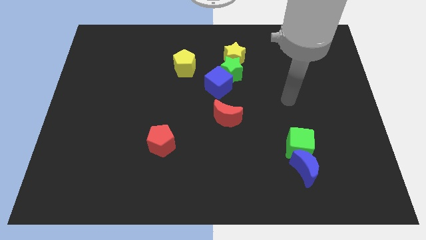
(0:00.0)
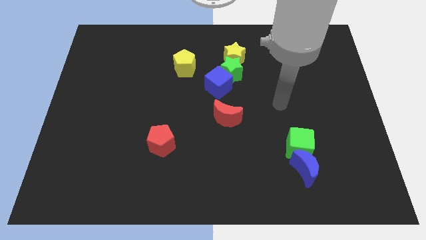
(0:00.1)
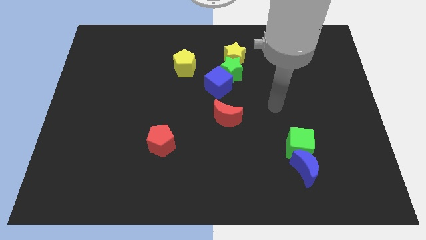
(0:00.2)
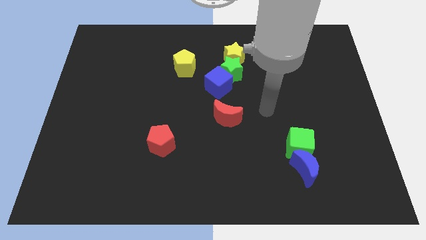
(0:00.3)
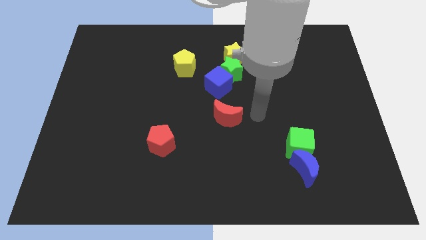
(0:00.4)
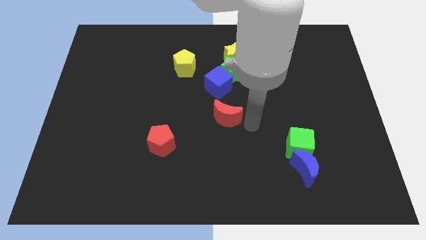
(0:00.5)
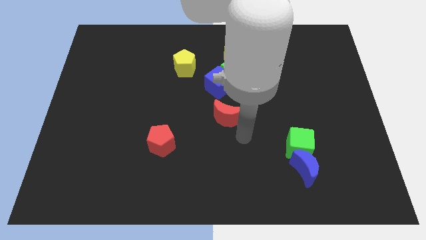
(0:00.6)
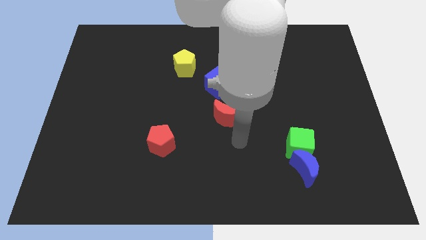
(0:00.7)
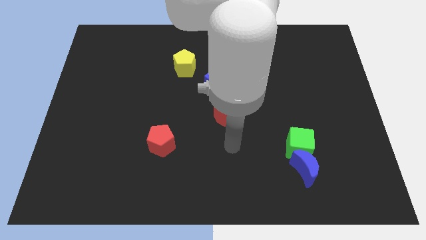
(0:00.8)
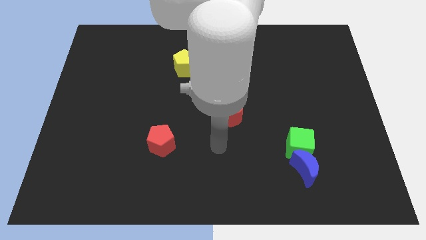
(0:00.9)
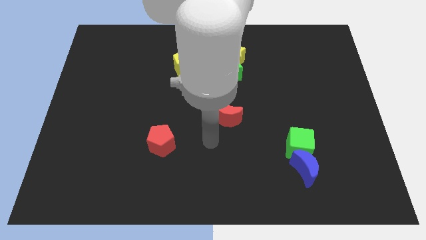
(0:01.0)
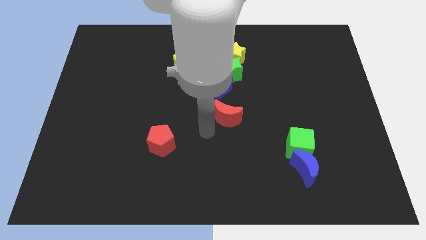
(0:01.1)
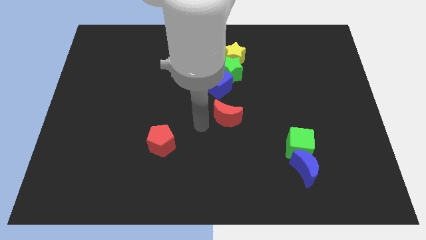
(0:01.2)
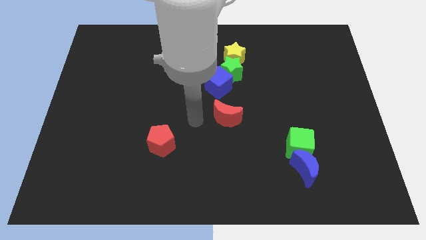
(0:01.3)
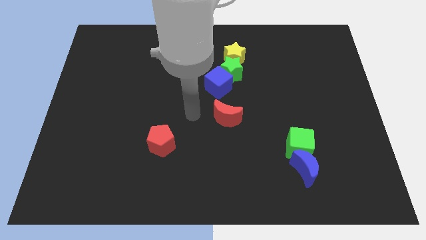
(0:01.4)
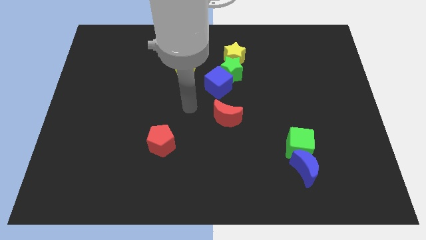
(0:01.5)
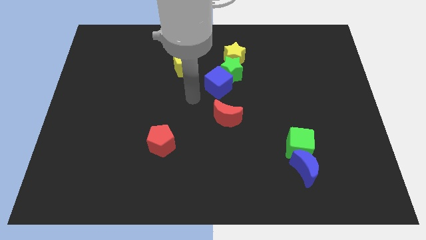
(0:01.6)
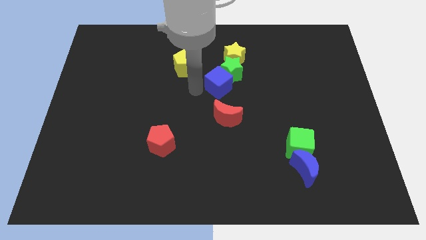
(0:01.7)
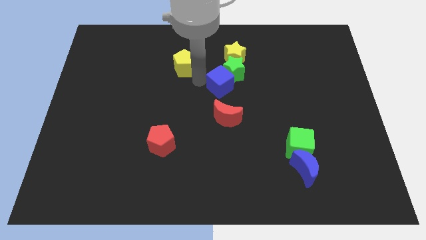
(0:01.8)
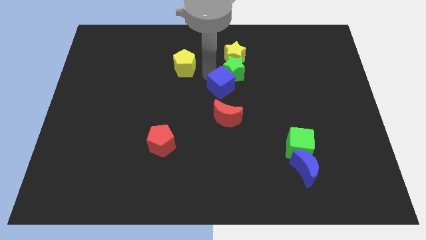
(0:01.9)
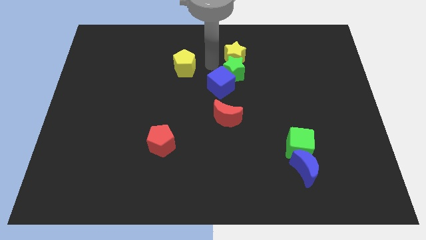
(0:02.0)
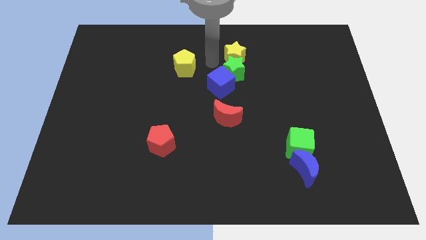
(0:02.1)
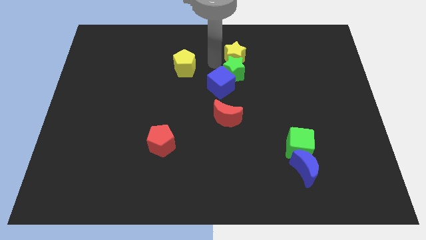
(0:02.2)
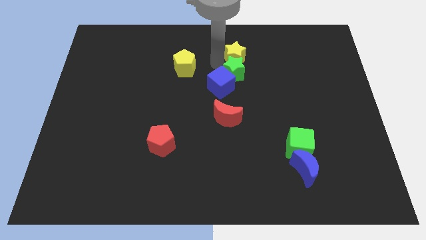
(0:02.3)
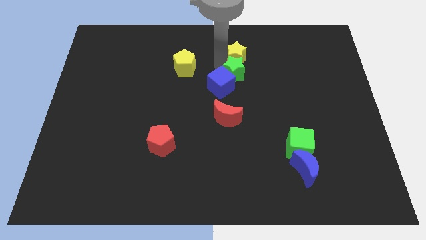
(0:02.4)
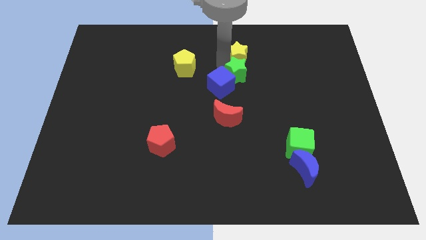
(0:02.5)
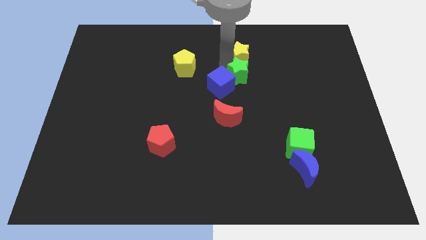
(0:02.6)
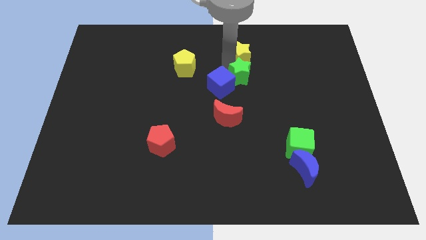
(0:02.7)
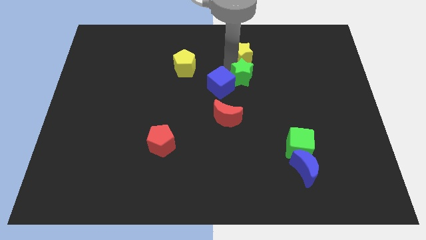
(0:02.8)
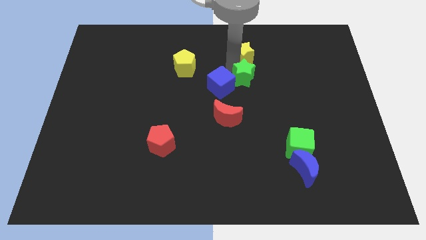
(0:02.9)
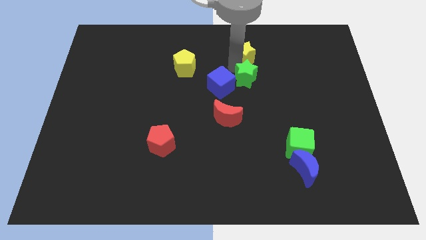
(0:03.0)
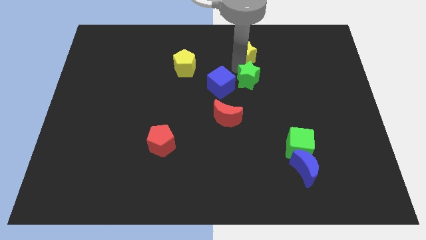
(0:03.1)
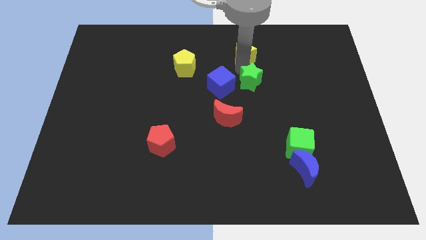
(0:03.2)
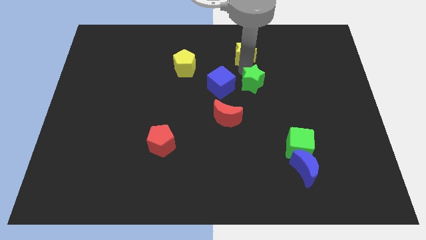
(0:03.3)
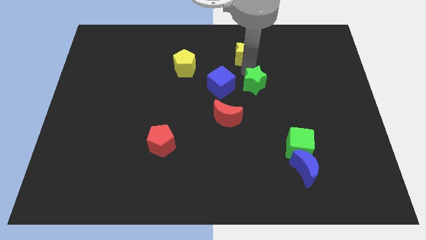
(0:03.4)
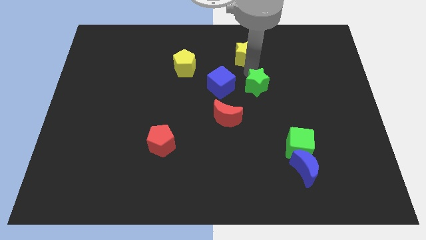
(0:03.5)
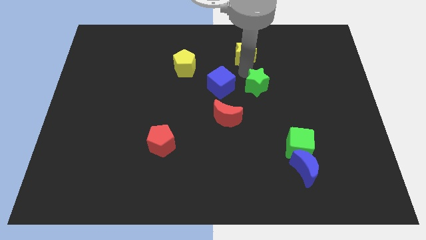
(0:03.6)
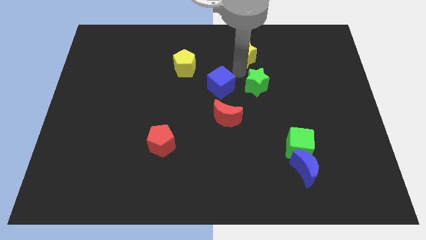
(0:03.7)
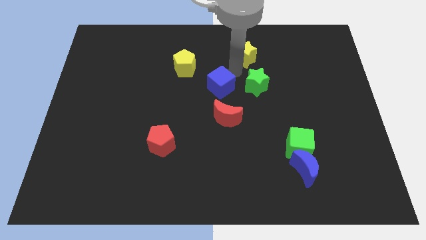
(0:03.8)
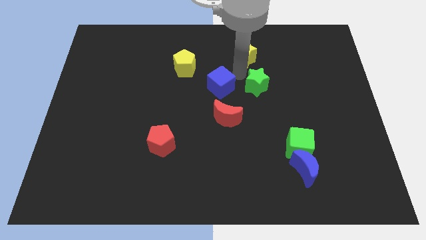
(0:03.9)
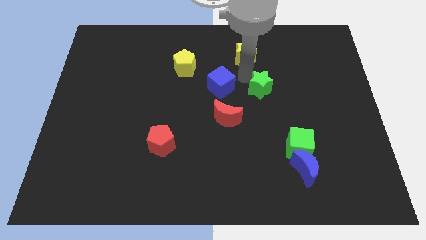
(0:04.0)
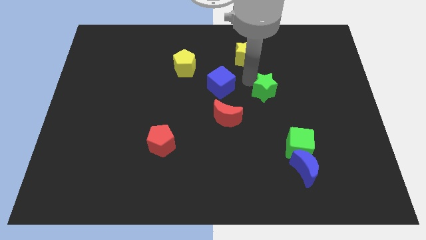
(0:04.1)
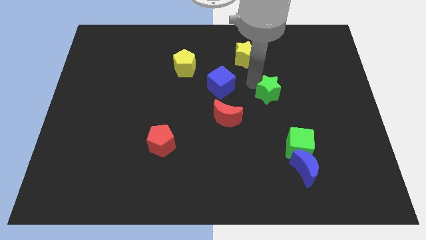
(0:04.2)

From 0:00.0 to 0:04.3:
move the green star away from the blue cube and yellow star

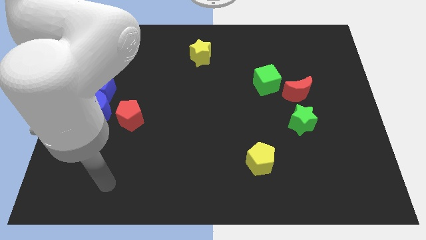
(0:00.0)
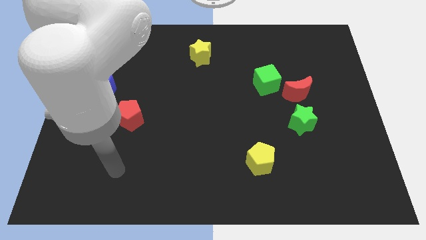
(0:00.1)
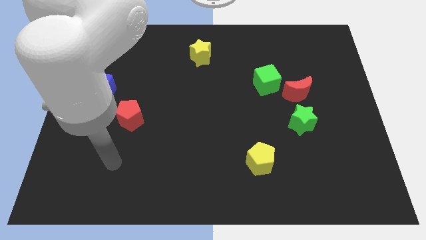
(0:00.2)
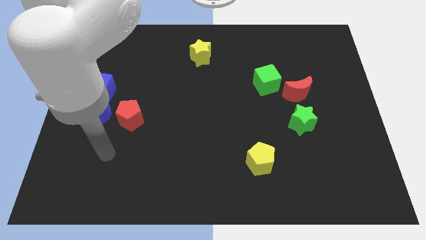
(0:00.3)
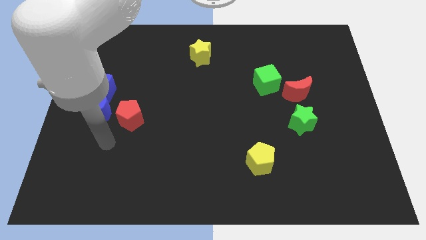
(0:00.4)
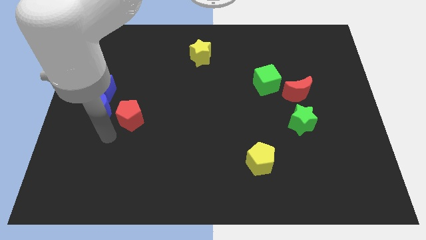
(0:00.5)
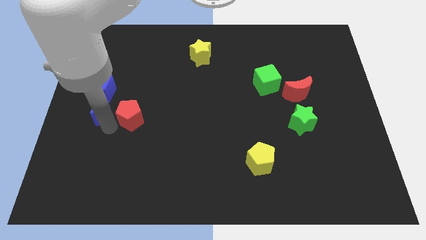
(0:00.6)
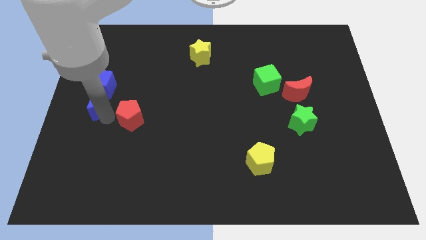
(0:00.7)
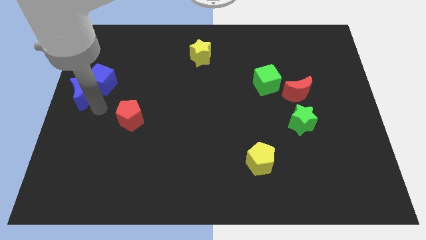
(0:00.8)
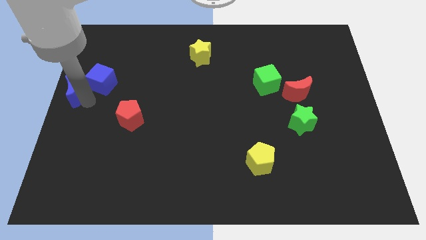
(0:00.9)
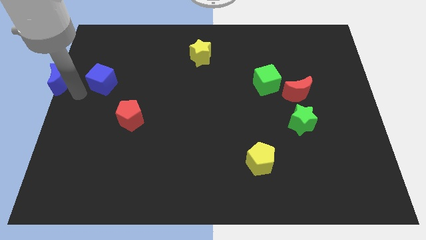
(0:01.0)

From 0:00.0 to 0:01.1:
separate the blue cube from the blue moon

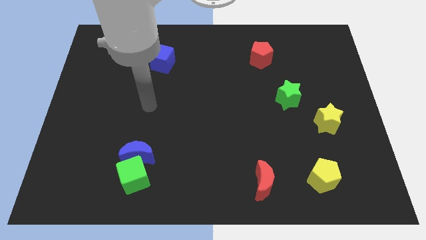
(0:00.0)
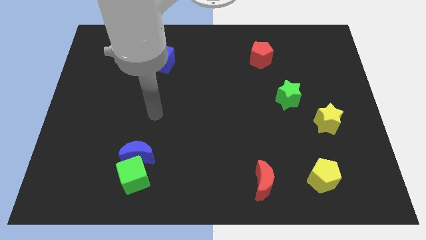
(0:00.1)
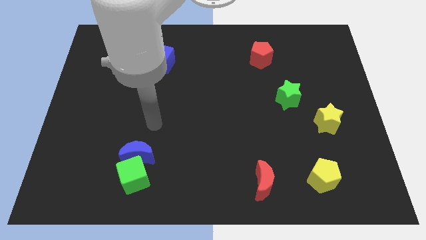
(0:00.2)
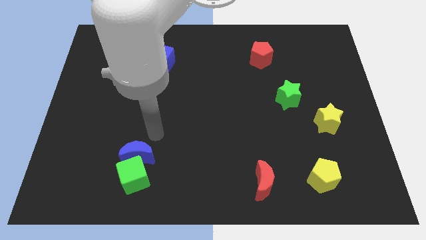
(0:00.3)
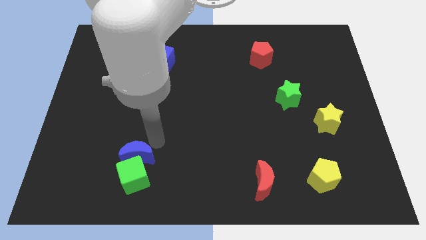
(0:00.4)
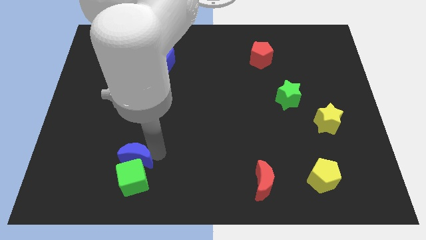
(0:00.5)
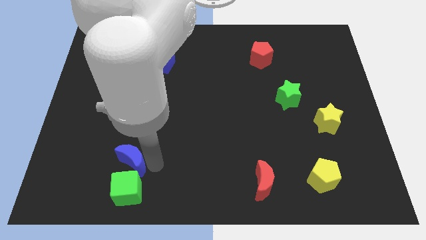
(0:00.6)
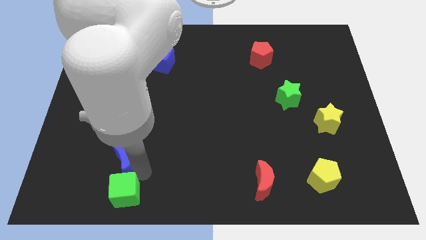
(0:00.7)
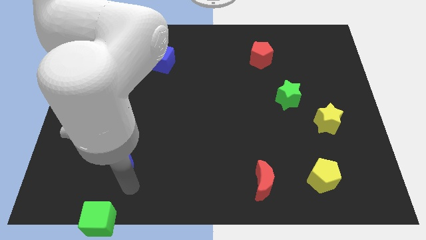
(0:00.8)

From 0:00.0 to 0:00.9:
move the blue moon away from the green cube

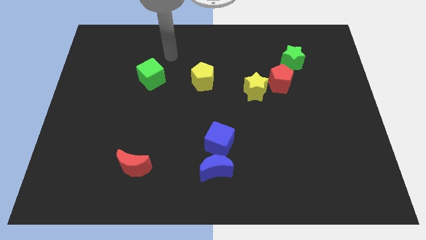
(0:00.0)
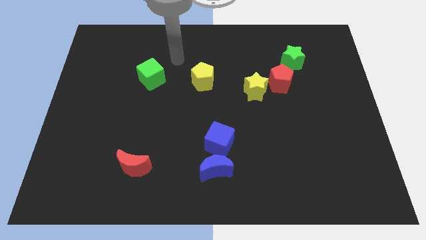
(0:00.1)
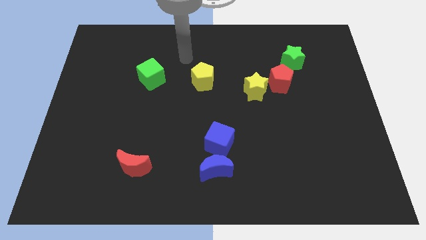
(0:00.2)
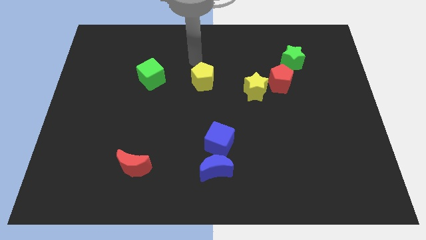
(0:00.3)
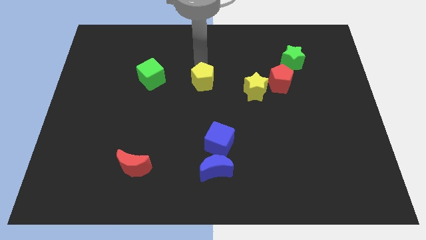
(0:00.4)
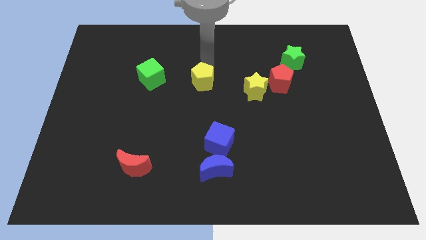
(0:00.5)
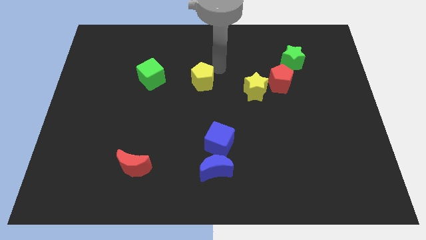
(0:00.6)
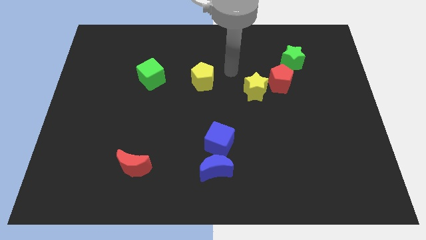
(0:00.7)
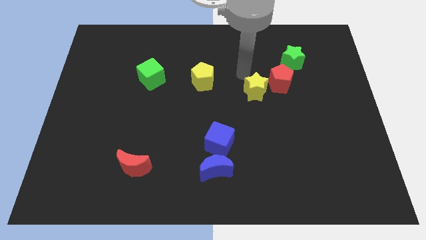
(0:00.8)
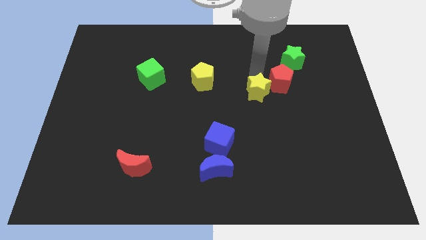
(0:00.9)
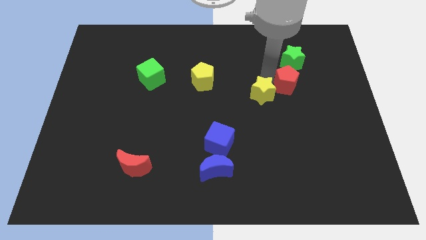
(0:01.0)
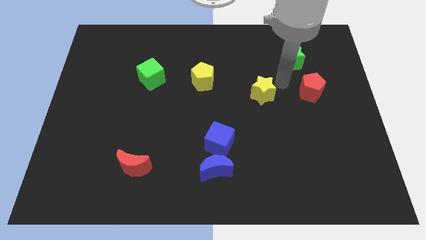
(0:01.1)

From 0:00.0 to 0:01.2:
pull the yellow star apart from the red pentagon

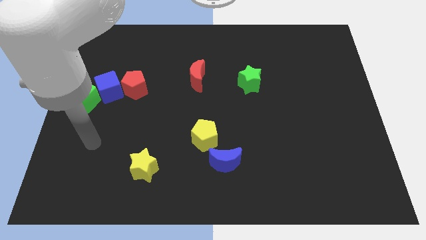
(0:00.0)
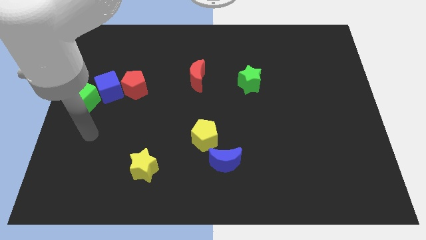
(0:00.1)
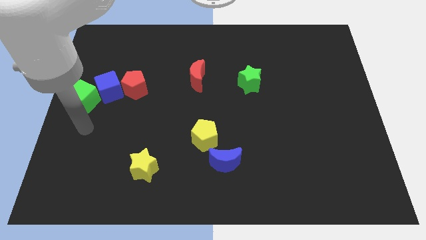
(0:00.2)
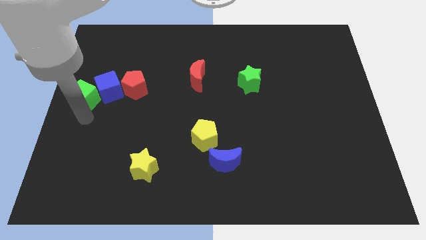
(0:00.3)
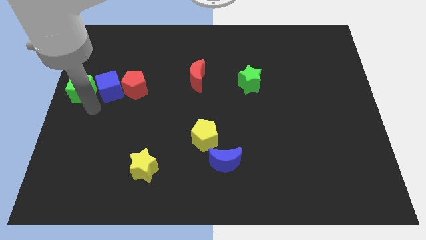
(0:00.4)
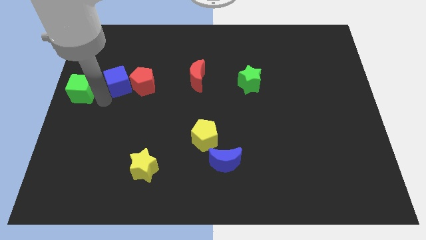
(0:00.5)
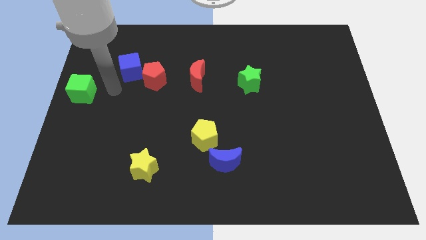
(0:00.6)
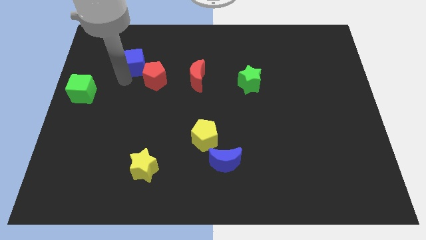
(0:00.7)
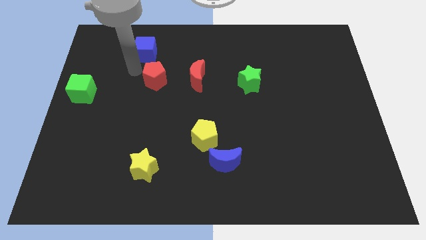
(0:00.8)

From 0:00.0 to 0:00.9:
move the red pentagon away from the blue cube

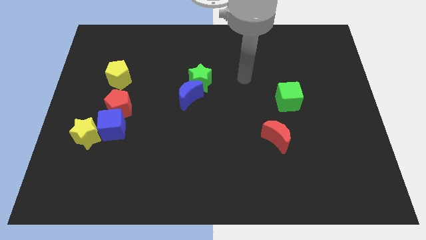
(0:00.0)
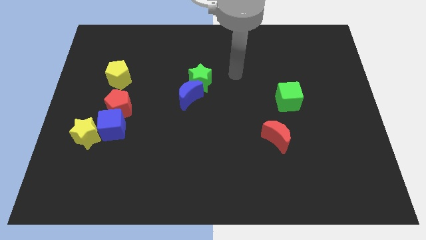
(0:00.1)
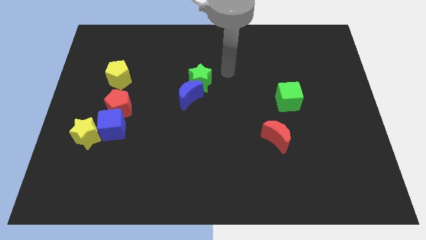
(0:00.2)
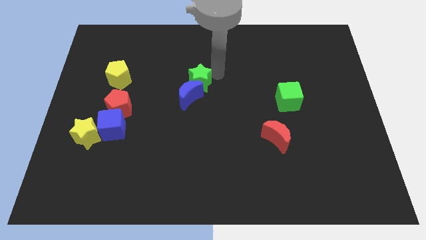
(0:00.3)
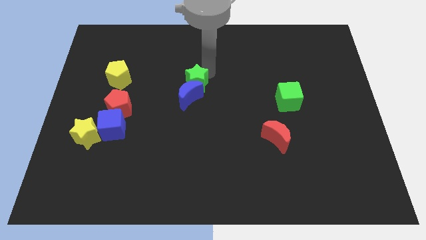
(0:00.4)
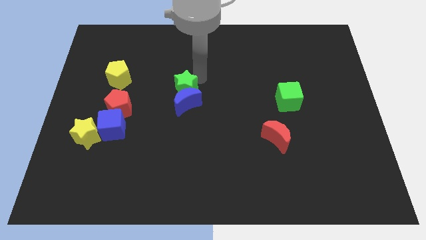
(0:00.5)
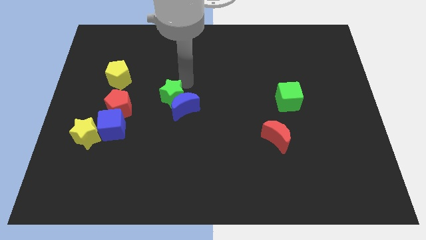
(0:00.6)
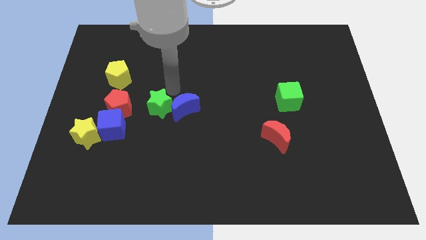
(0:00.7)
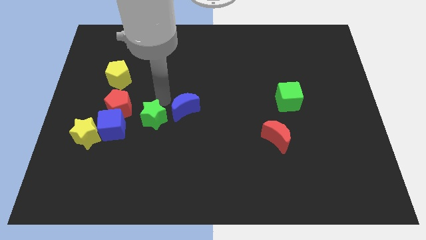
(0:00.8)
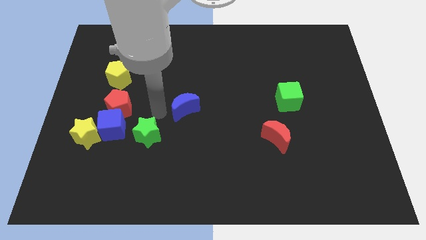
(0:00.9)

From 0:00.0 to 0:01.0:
pull the blue moon apart from the green star
